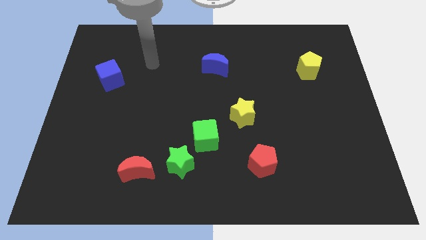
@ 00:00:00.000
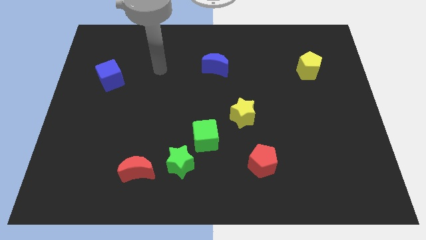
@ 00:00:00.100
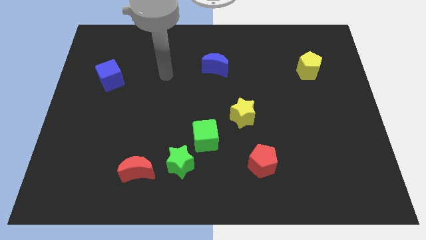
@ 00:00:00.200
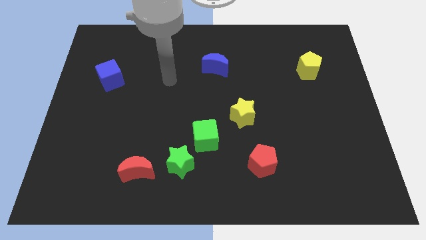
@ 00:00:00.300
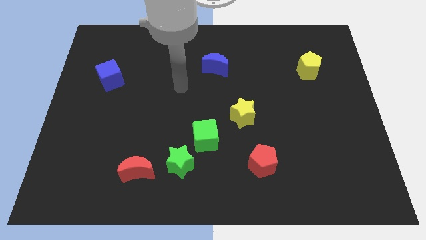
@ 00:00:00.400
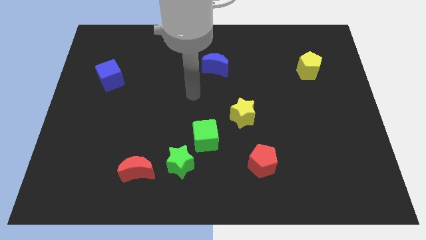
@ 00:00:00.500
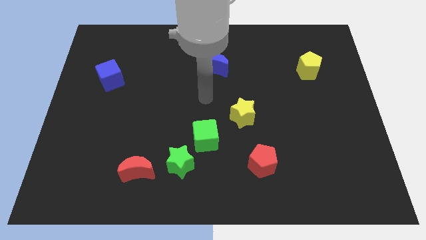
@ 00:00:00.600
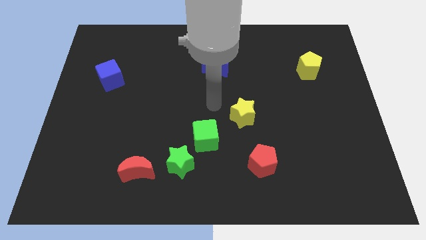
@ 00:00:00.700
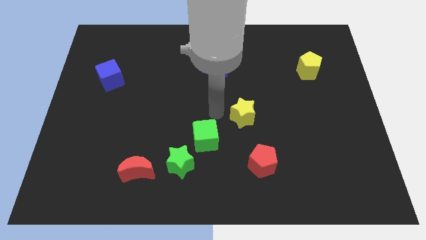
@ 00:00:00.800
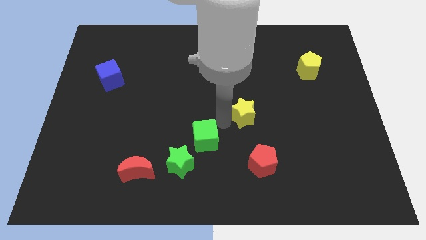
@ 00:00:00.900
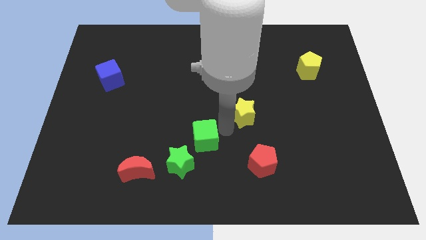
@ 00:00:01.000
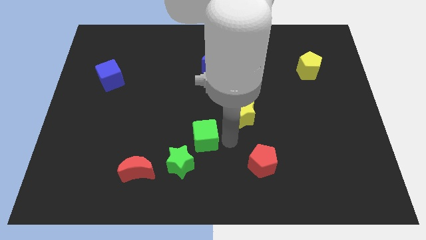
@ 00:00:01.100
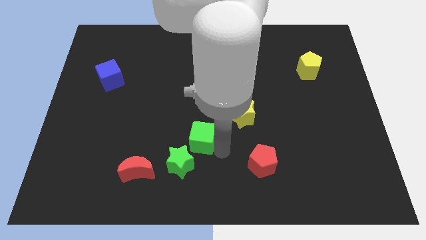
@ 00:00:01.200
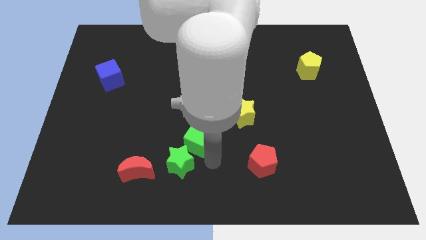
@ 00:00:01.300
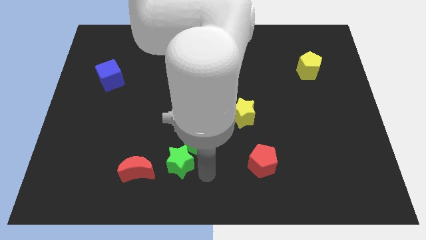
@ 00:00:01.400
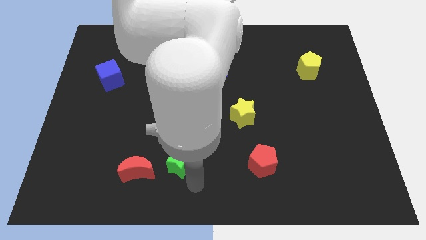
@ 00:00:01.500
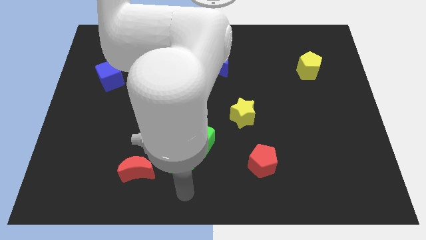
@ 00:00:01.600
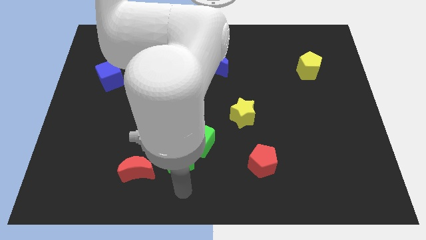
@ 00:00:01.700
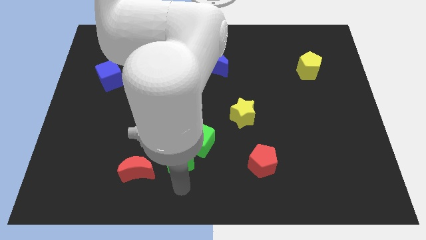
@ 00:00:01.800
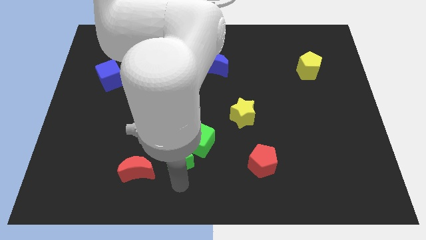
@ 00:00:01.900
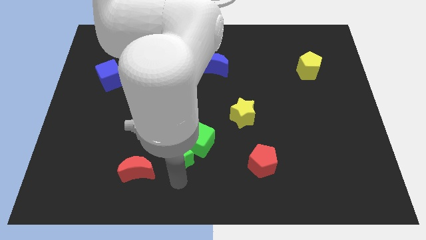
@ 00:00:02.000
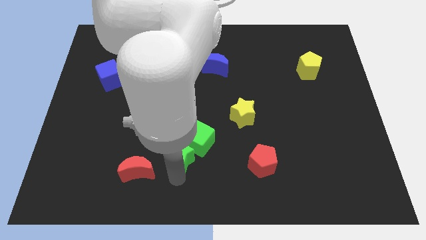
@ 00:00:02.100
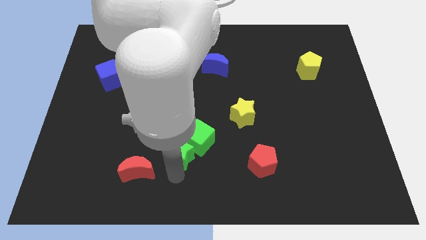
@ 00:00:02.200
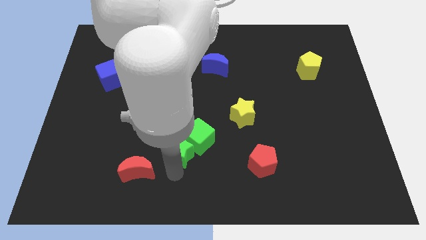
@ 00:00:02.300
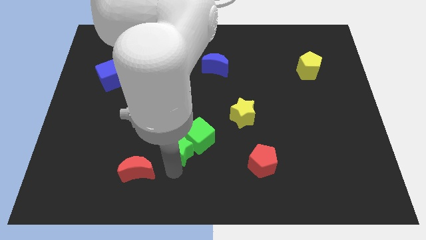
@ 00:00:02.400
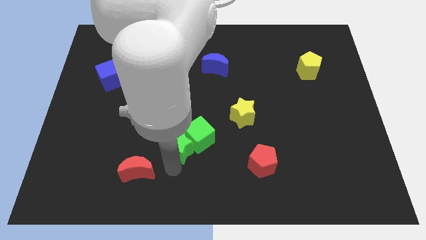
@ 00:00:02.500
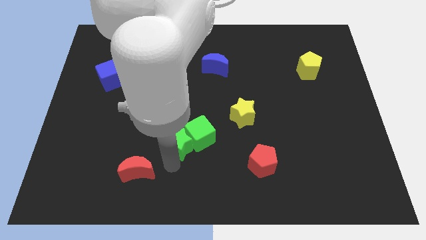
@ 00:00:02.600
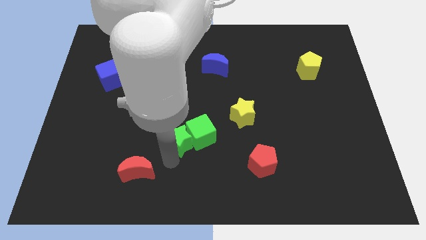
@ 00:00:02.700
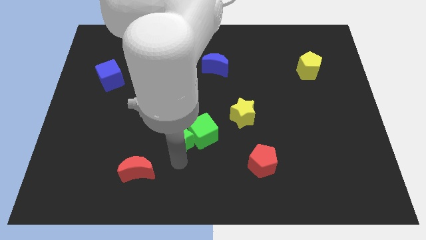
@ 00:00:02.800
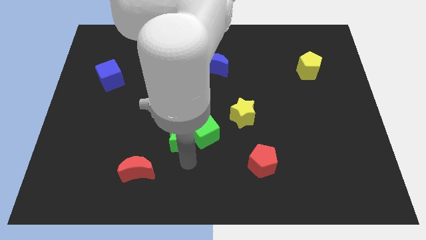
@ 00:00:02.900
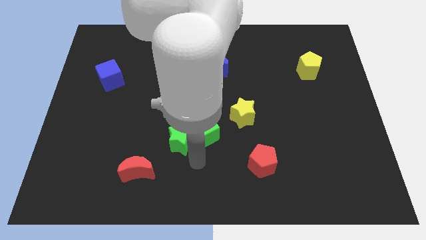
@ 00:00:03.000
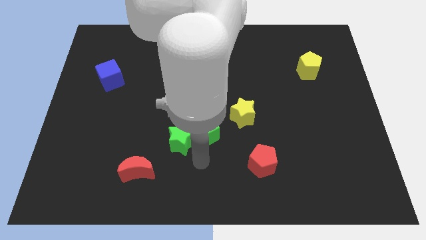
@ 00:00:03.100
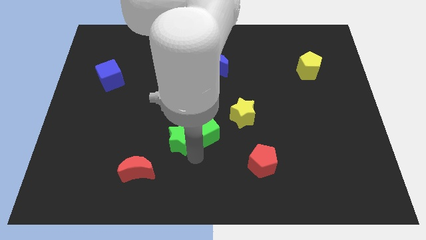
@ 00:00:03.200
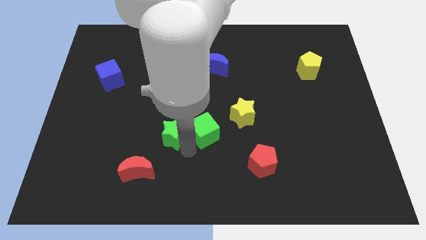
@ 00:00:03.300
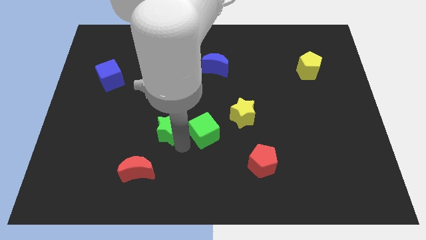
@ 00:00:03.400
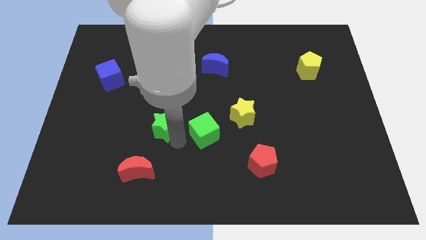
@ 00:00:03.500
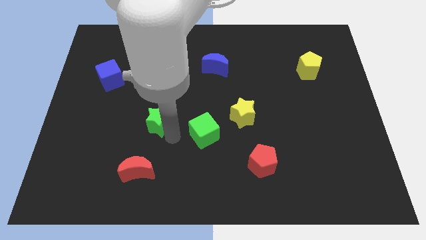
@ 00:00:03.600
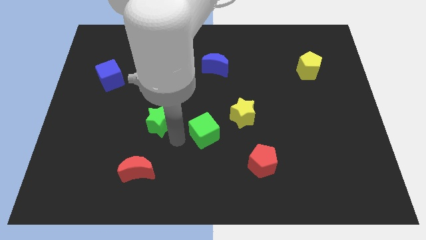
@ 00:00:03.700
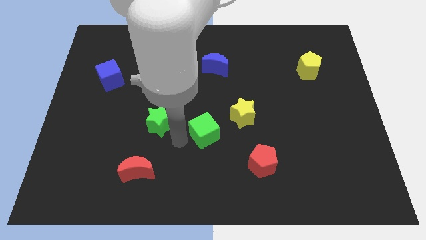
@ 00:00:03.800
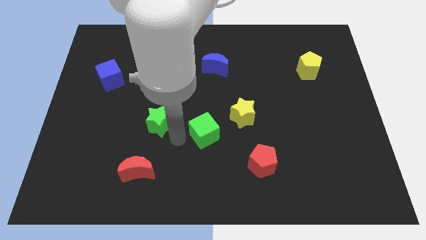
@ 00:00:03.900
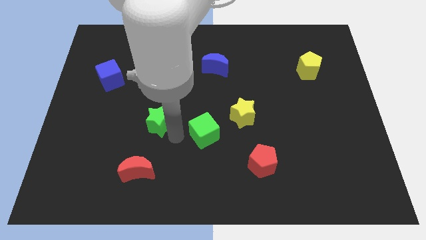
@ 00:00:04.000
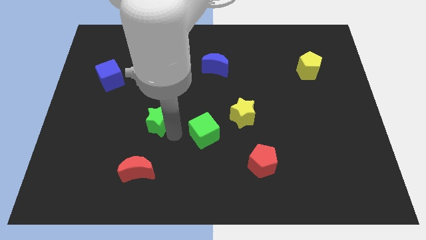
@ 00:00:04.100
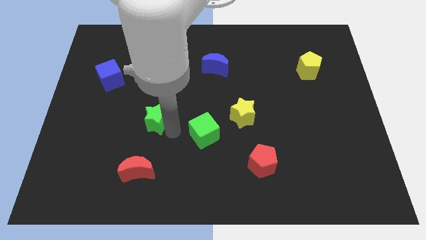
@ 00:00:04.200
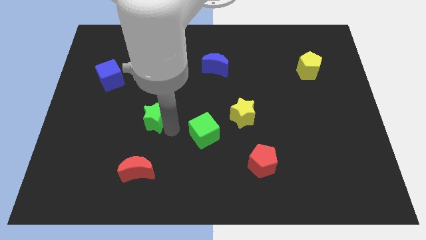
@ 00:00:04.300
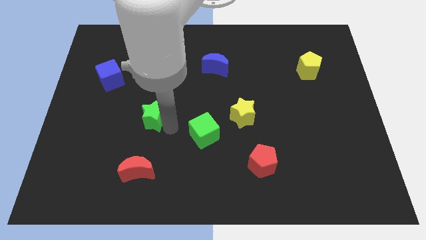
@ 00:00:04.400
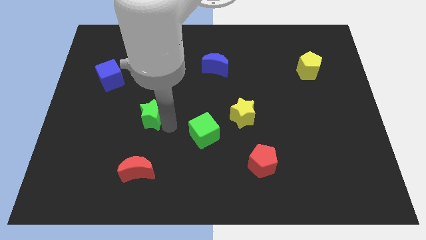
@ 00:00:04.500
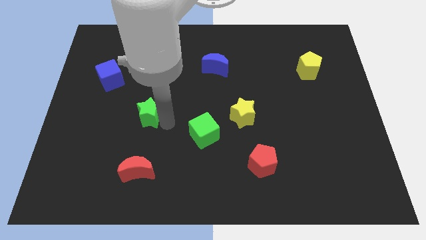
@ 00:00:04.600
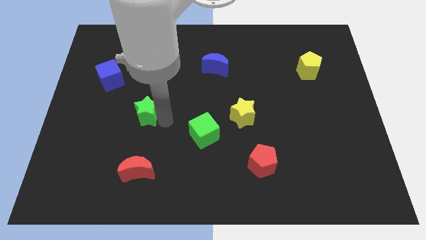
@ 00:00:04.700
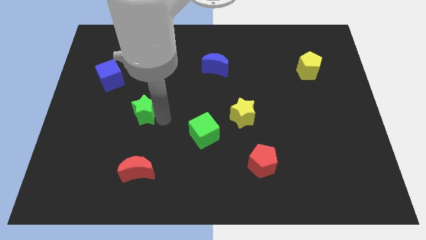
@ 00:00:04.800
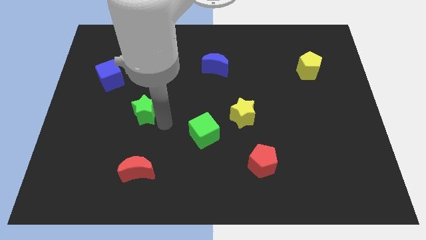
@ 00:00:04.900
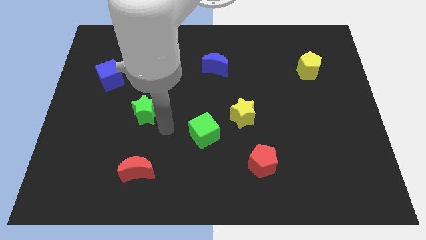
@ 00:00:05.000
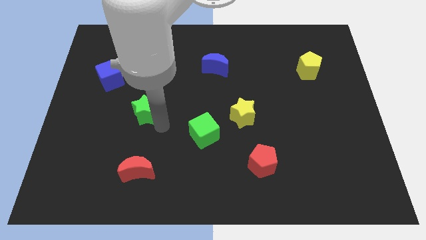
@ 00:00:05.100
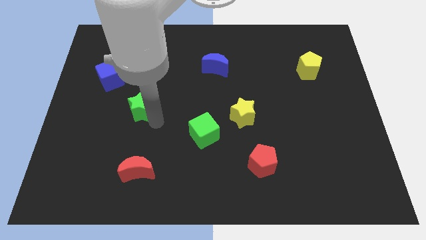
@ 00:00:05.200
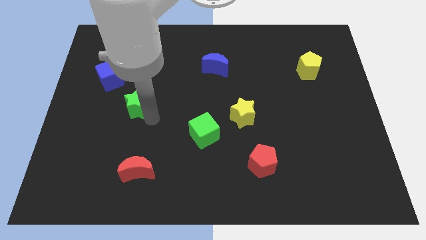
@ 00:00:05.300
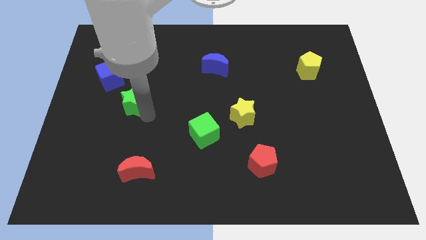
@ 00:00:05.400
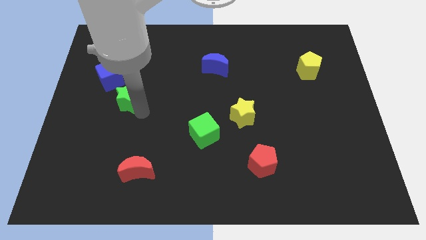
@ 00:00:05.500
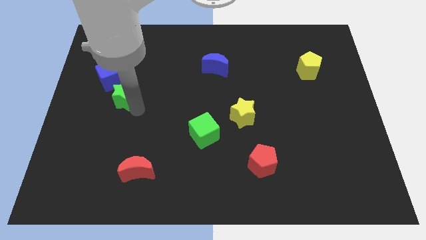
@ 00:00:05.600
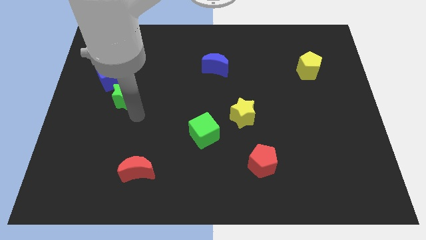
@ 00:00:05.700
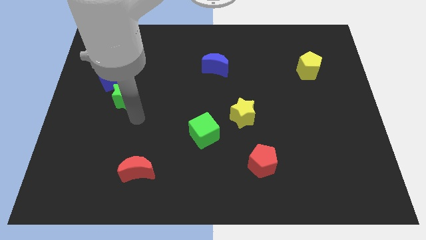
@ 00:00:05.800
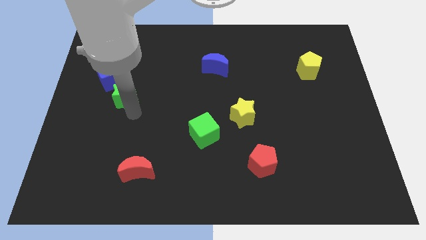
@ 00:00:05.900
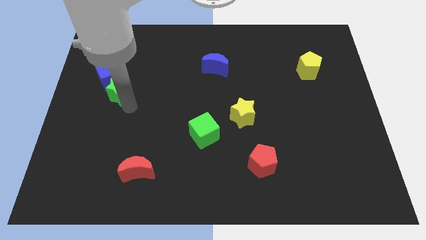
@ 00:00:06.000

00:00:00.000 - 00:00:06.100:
slide the green star close to the blue cube

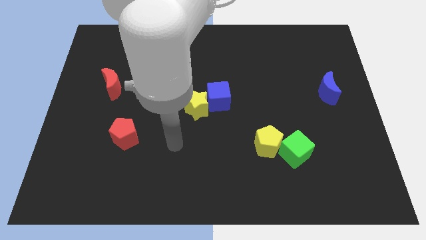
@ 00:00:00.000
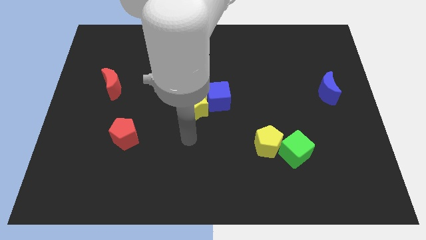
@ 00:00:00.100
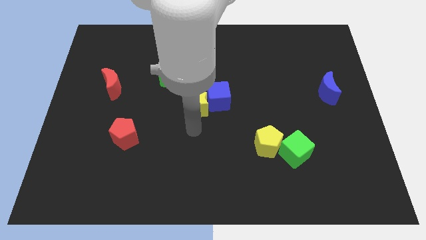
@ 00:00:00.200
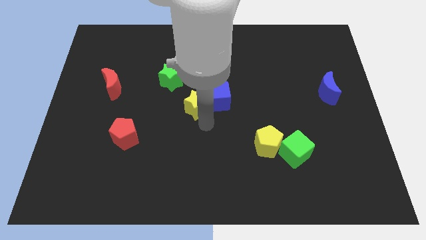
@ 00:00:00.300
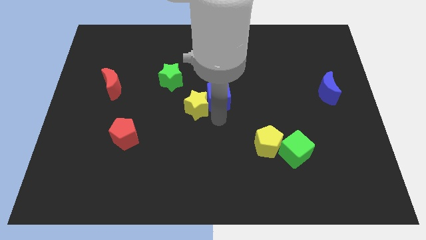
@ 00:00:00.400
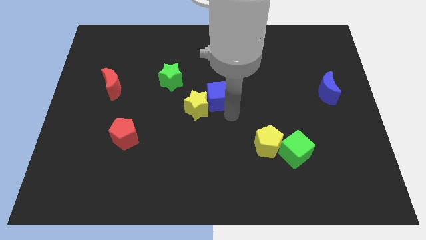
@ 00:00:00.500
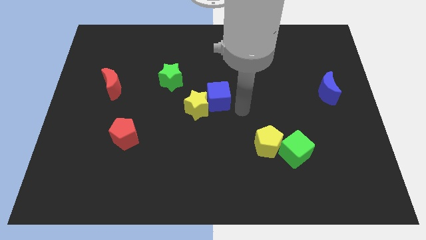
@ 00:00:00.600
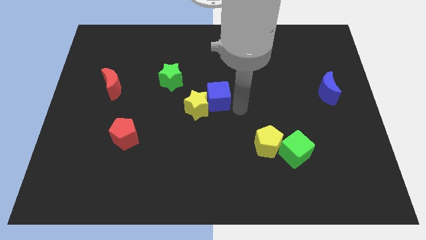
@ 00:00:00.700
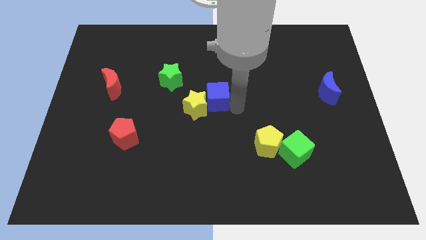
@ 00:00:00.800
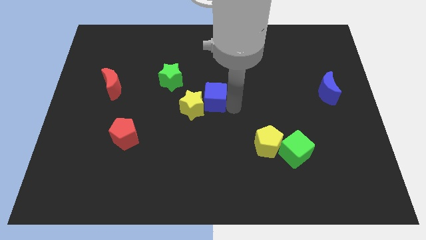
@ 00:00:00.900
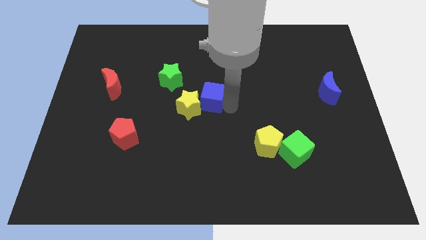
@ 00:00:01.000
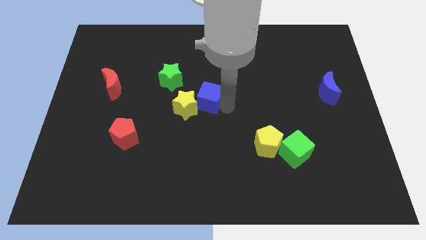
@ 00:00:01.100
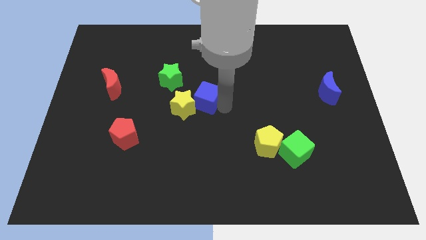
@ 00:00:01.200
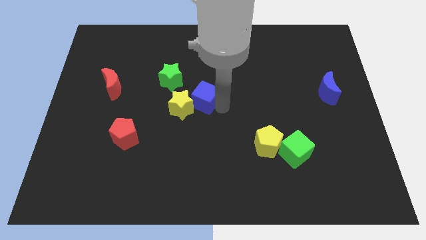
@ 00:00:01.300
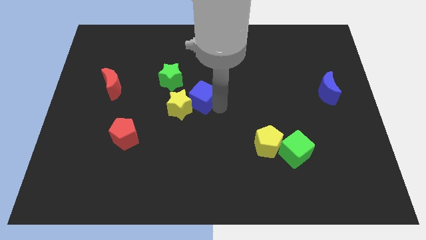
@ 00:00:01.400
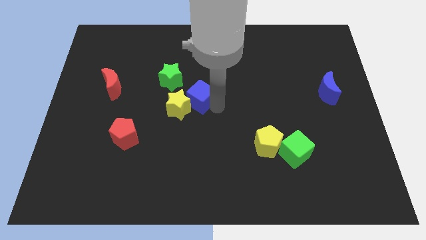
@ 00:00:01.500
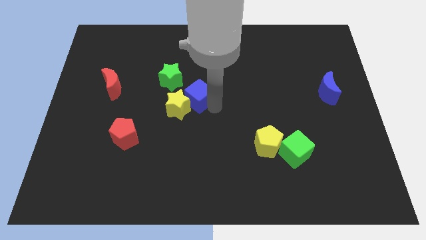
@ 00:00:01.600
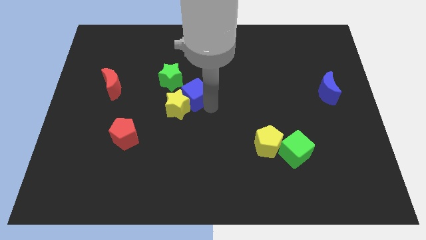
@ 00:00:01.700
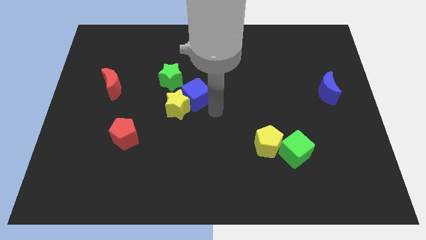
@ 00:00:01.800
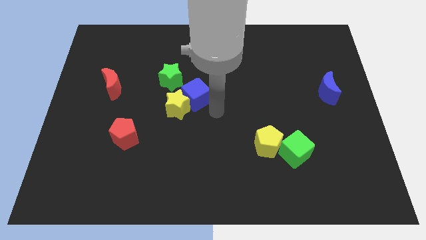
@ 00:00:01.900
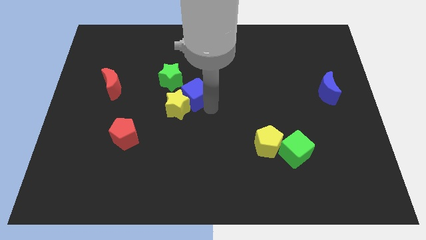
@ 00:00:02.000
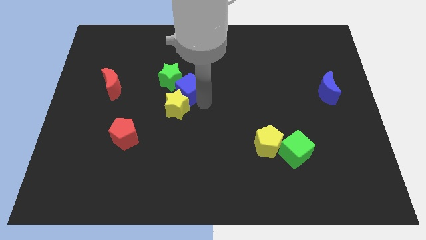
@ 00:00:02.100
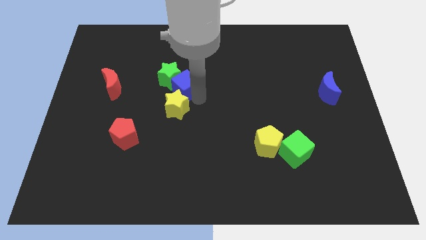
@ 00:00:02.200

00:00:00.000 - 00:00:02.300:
slide the blue cube towards the green star
